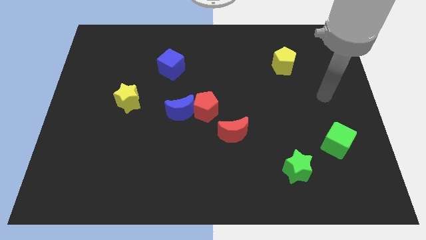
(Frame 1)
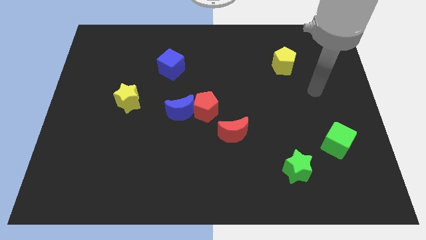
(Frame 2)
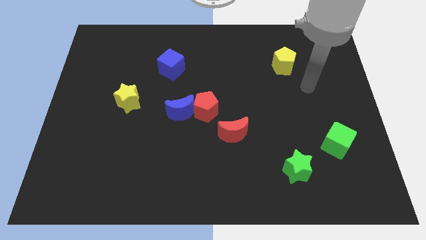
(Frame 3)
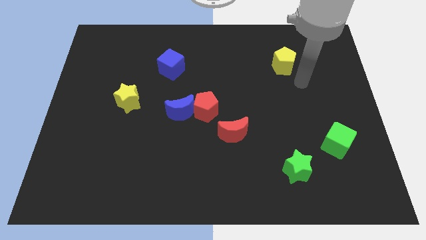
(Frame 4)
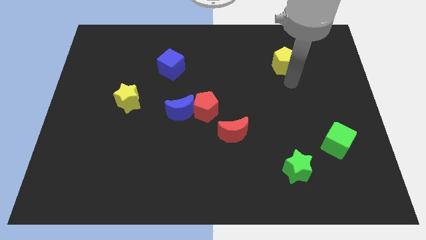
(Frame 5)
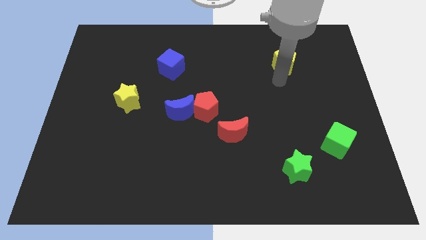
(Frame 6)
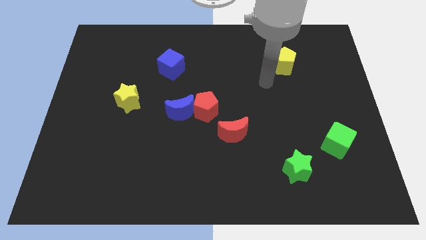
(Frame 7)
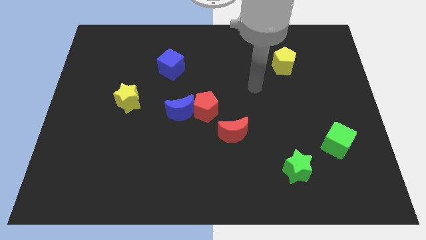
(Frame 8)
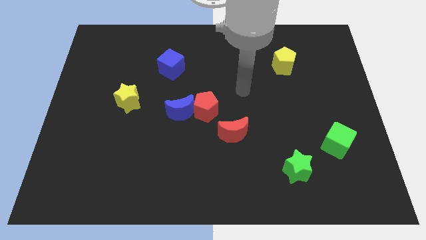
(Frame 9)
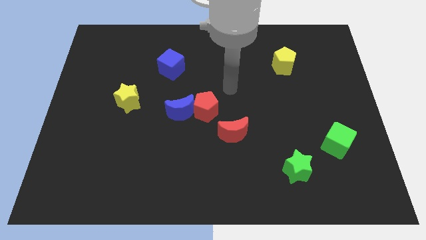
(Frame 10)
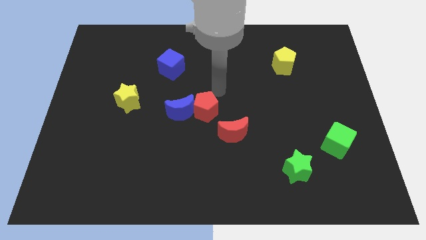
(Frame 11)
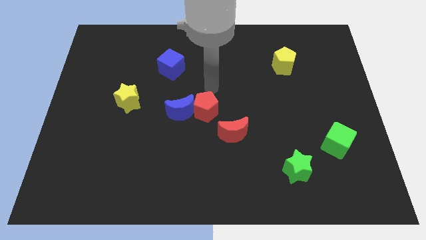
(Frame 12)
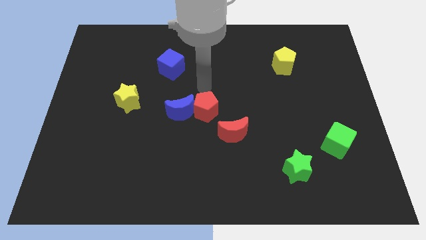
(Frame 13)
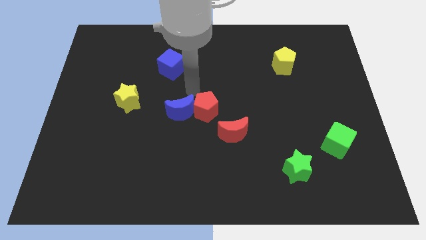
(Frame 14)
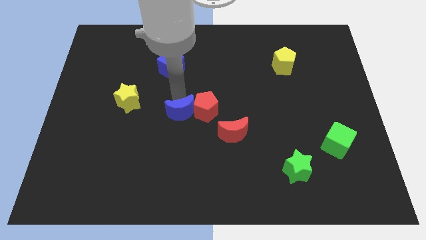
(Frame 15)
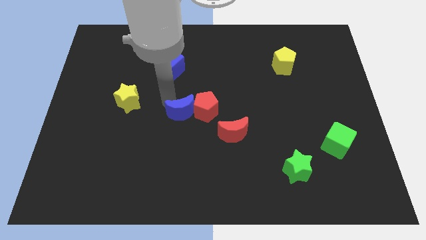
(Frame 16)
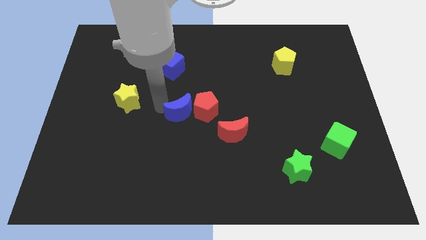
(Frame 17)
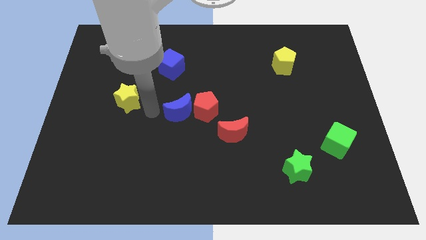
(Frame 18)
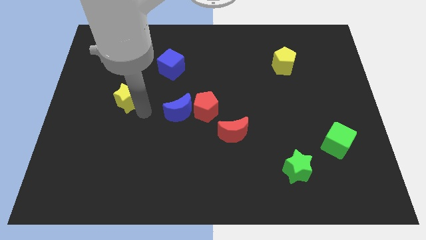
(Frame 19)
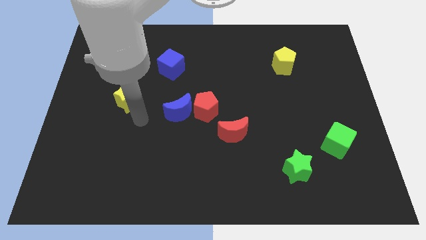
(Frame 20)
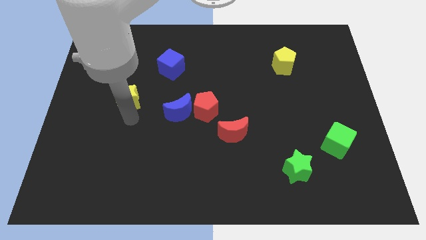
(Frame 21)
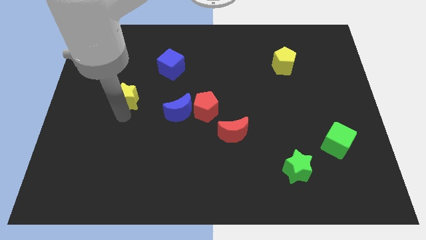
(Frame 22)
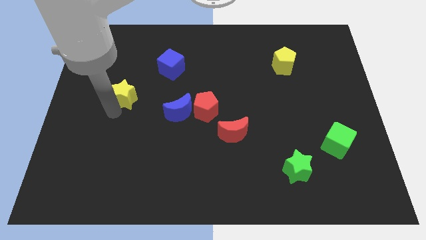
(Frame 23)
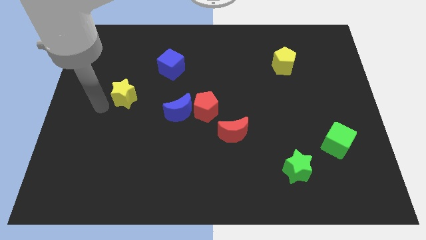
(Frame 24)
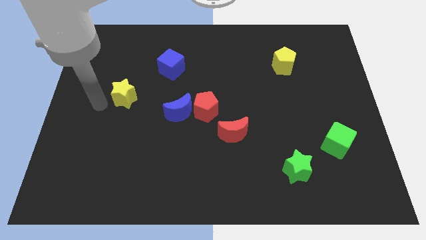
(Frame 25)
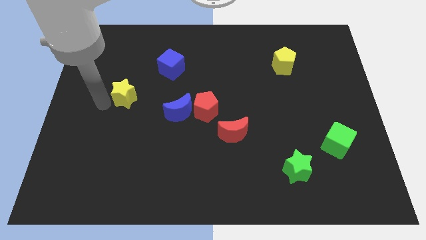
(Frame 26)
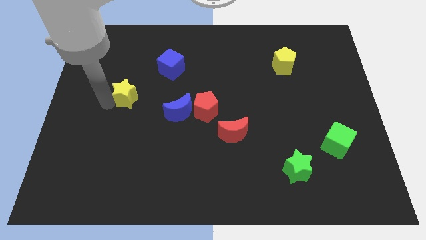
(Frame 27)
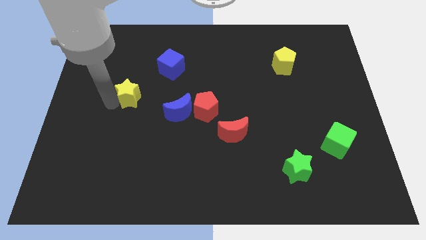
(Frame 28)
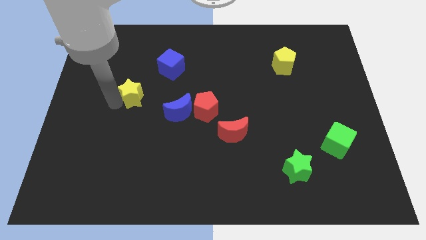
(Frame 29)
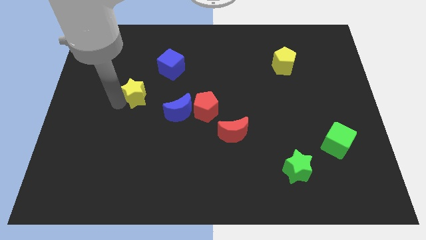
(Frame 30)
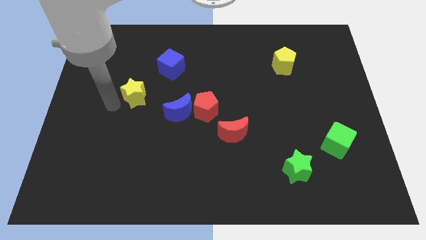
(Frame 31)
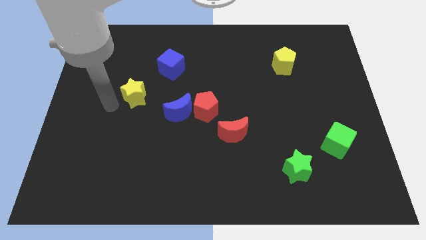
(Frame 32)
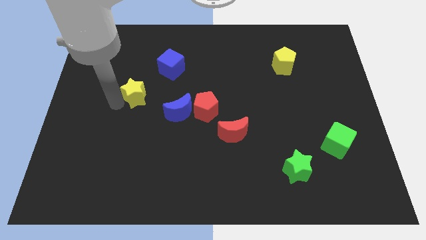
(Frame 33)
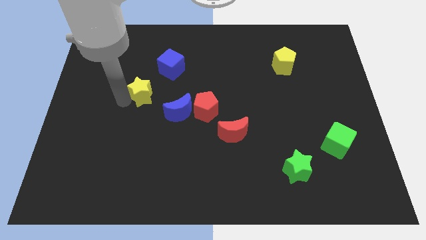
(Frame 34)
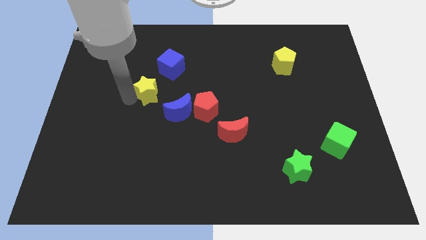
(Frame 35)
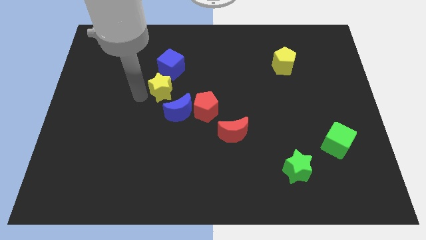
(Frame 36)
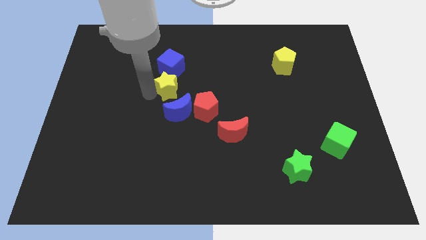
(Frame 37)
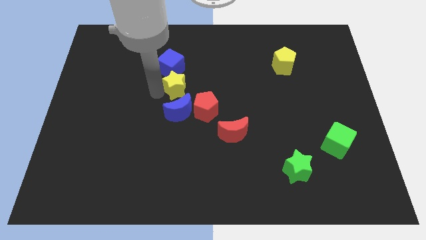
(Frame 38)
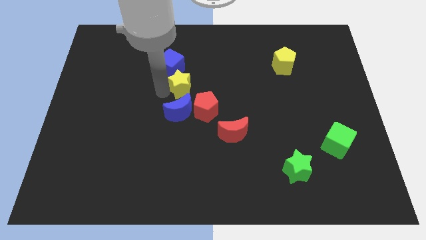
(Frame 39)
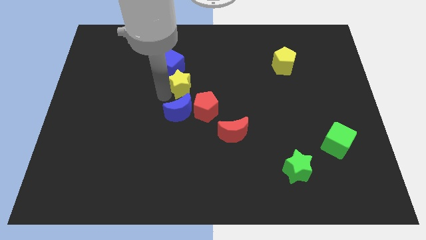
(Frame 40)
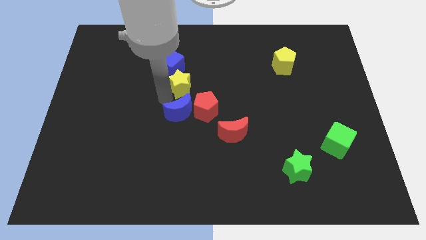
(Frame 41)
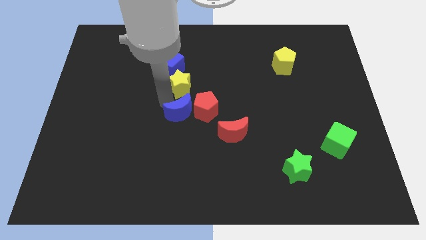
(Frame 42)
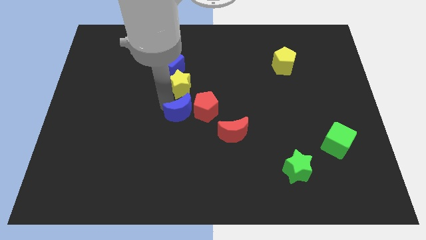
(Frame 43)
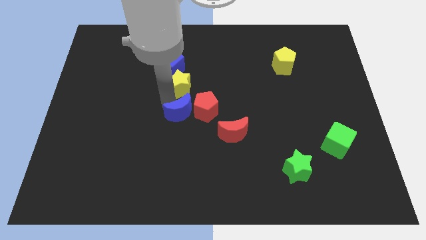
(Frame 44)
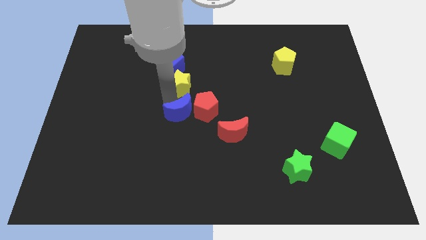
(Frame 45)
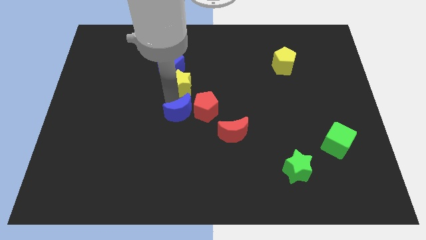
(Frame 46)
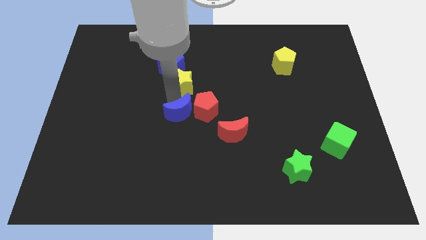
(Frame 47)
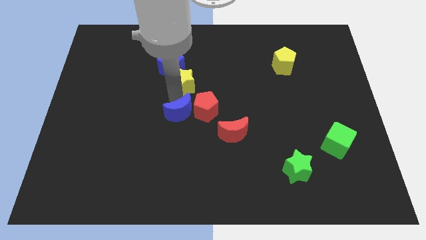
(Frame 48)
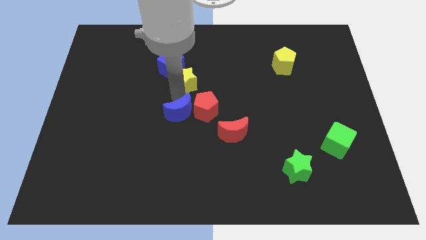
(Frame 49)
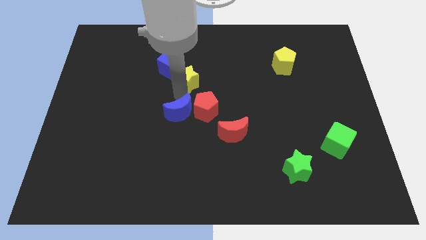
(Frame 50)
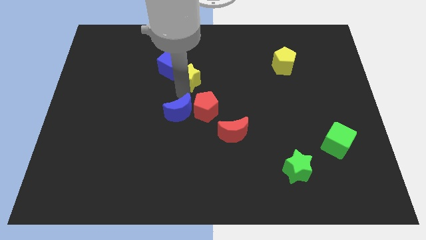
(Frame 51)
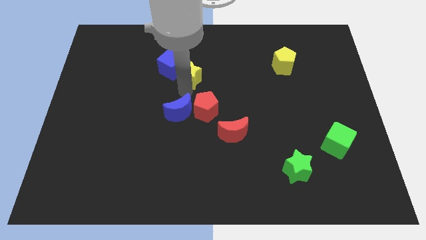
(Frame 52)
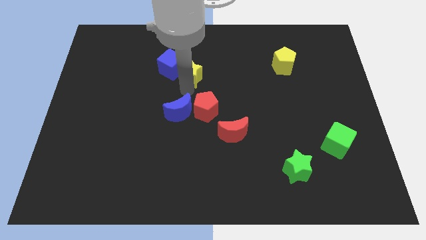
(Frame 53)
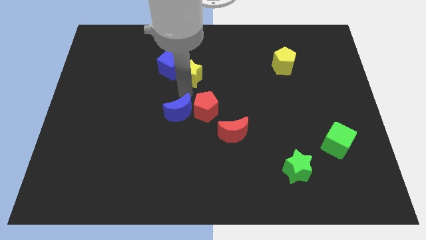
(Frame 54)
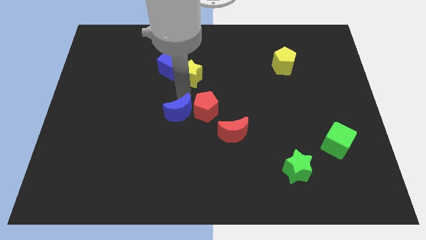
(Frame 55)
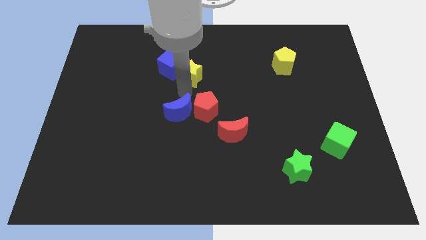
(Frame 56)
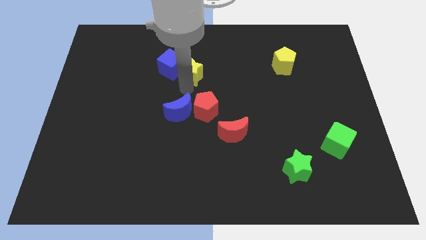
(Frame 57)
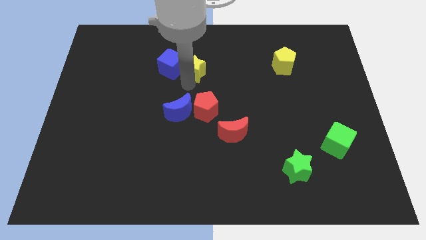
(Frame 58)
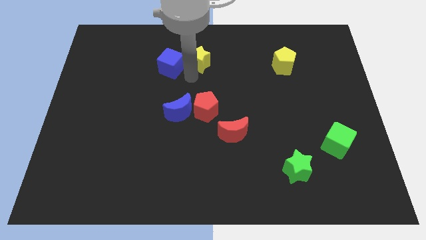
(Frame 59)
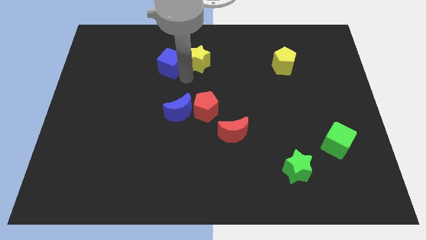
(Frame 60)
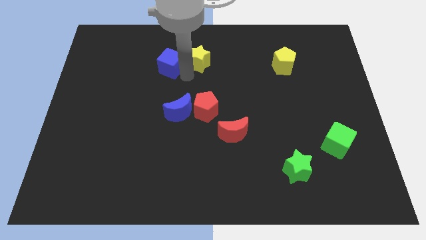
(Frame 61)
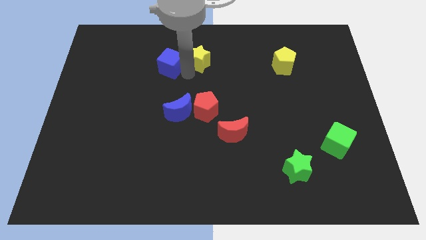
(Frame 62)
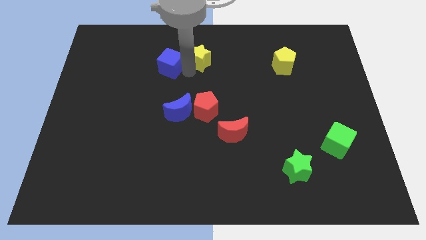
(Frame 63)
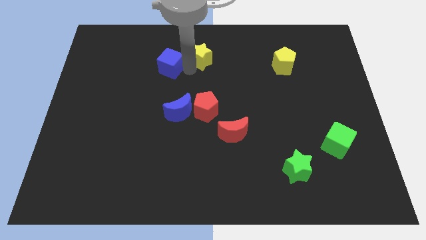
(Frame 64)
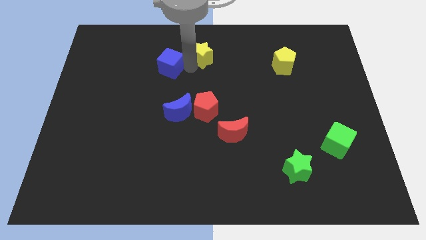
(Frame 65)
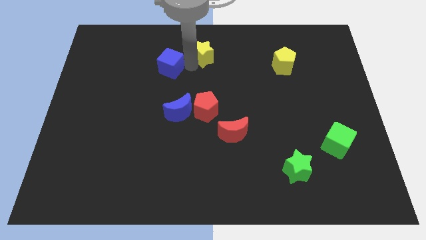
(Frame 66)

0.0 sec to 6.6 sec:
put the yellow star to the towards your base
